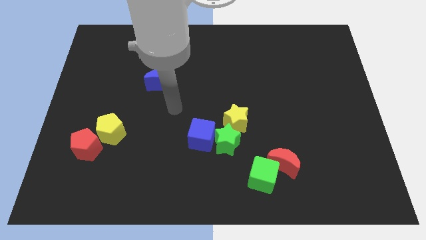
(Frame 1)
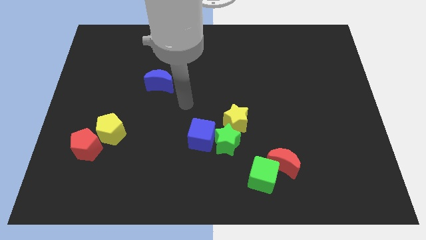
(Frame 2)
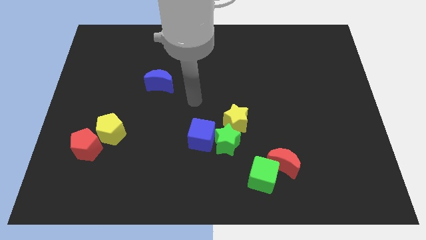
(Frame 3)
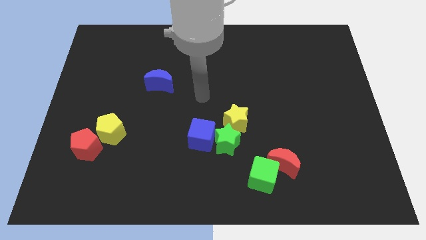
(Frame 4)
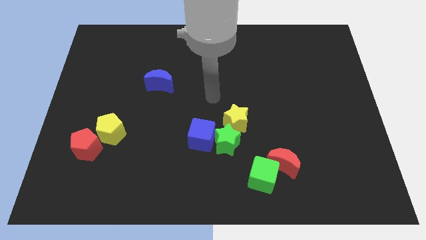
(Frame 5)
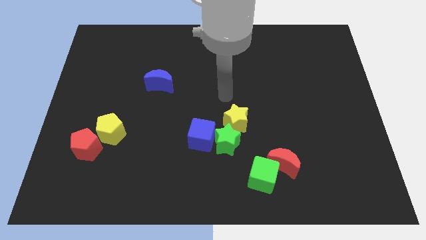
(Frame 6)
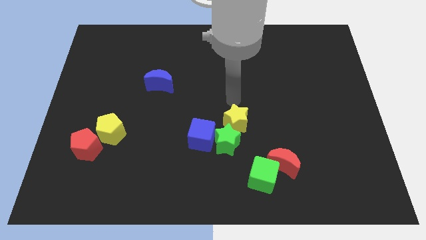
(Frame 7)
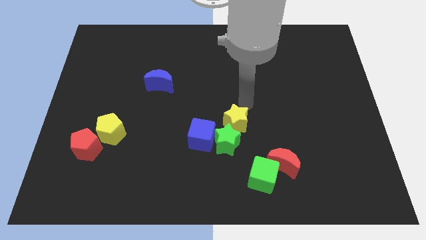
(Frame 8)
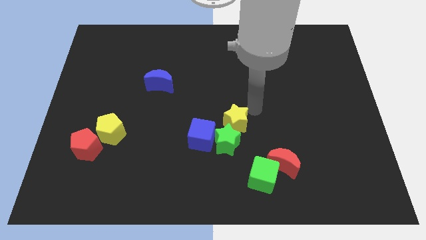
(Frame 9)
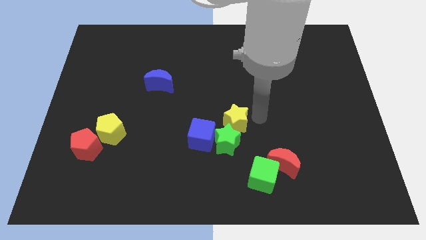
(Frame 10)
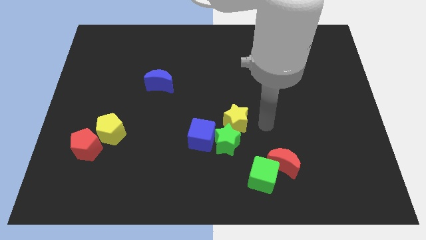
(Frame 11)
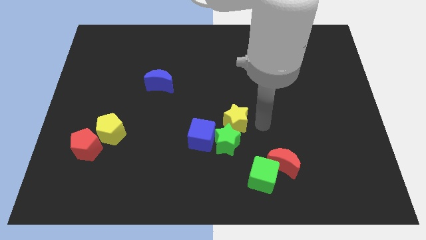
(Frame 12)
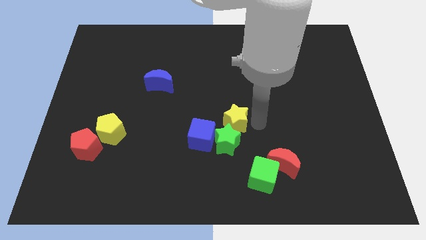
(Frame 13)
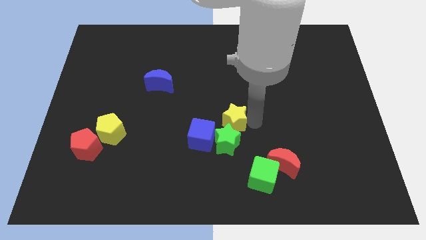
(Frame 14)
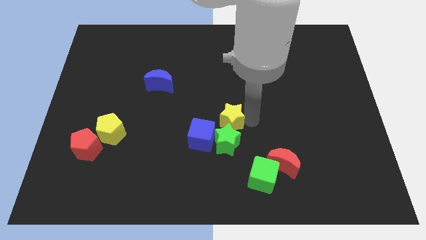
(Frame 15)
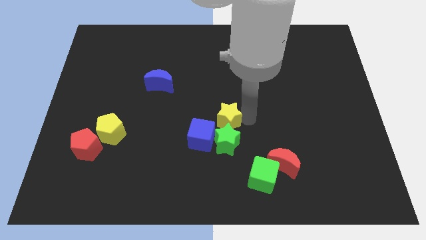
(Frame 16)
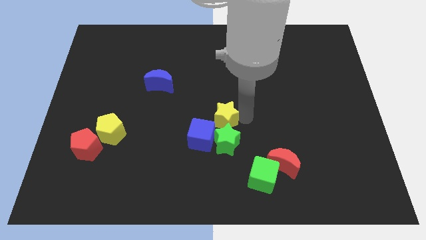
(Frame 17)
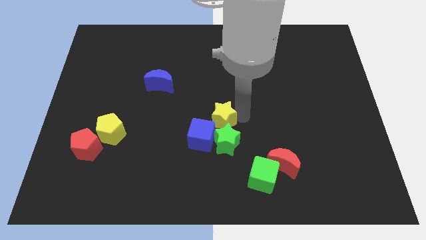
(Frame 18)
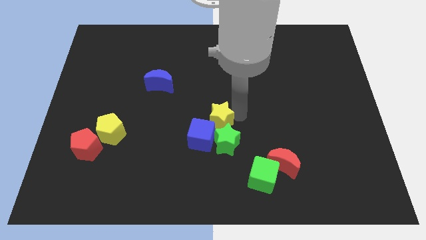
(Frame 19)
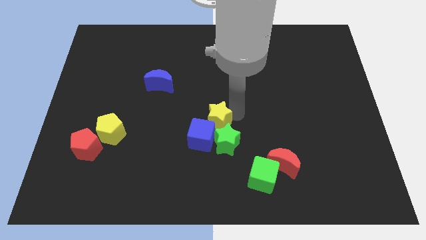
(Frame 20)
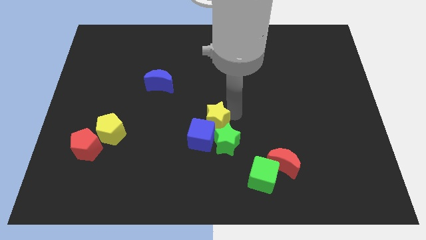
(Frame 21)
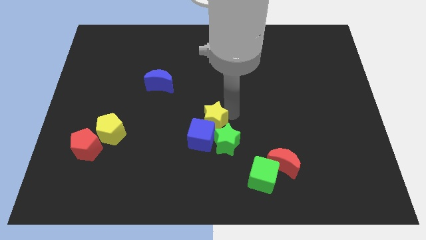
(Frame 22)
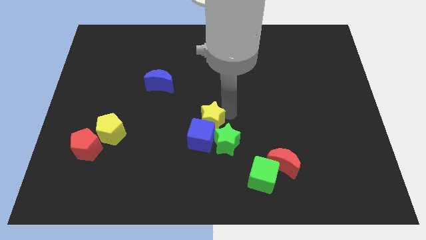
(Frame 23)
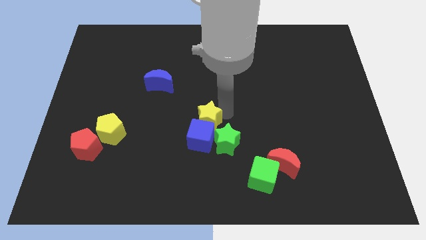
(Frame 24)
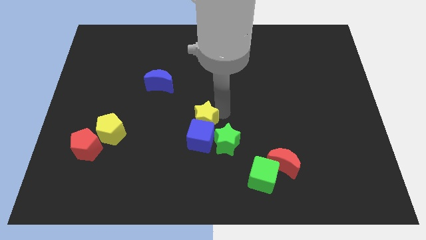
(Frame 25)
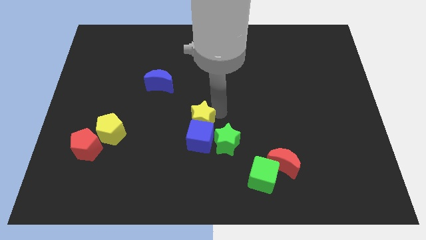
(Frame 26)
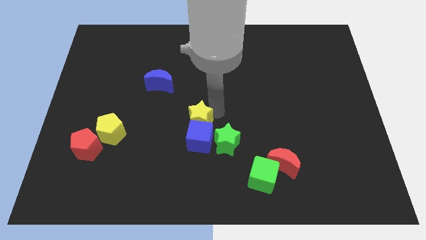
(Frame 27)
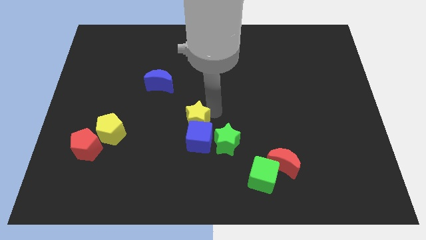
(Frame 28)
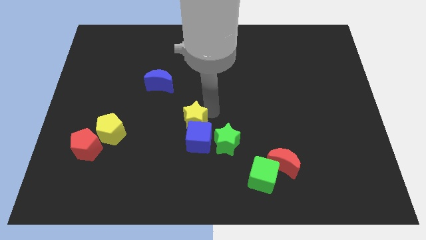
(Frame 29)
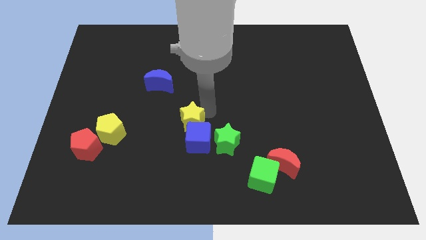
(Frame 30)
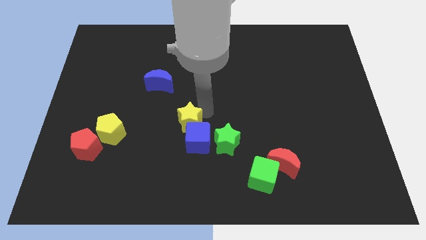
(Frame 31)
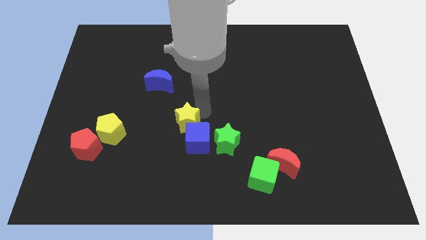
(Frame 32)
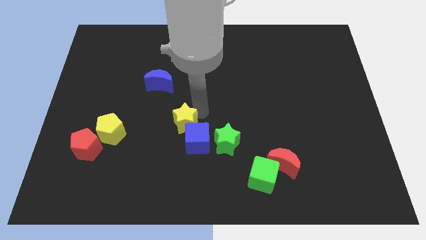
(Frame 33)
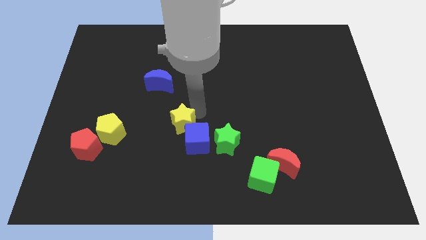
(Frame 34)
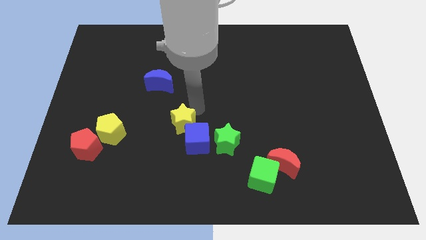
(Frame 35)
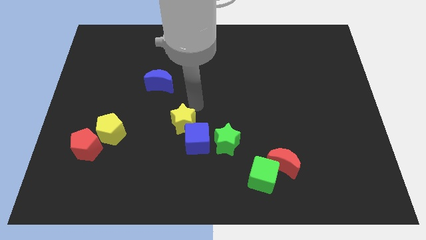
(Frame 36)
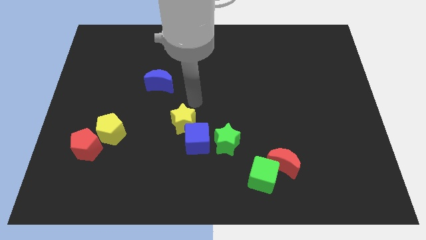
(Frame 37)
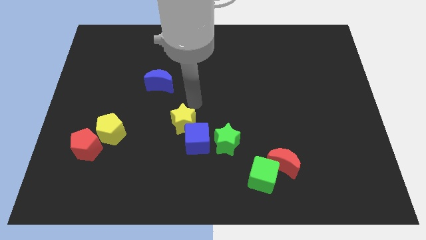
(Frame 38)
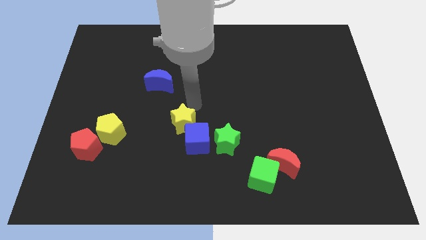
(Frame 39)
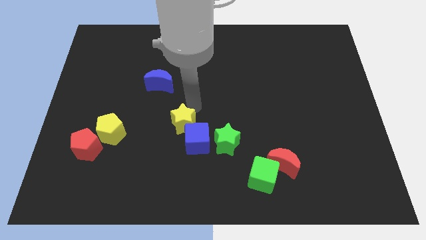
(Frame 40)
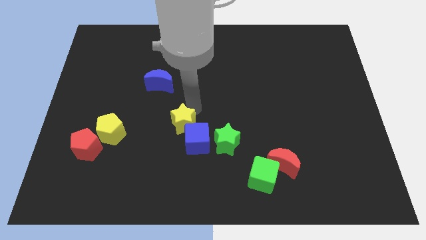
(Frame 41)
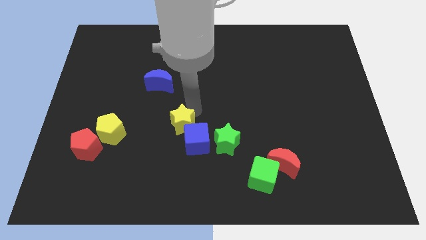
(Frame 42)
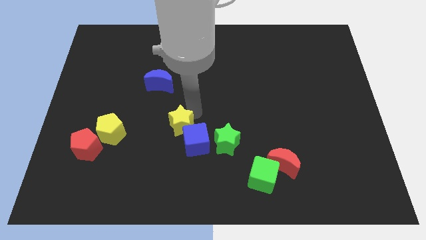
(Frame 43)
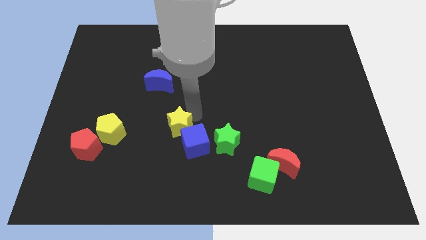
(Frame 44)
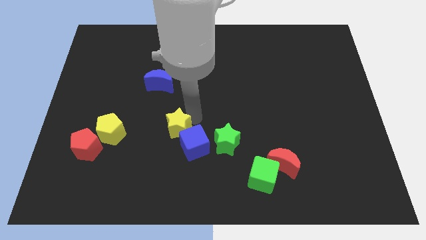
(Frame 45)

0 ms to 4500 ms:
slightly slide the yellow star down and to the left diagonally

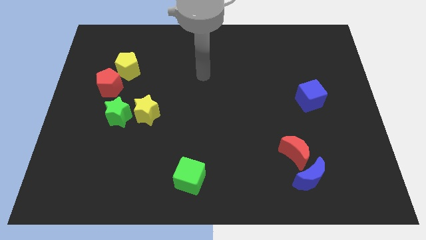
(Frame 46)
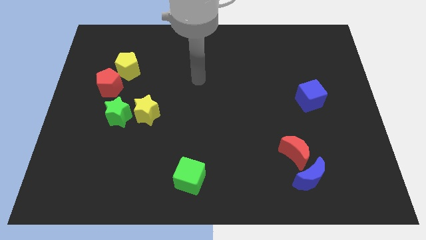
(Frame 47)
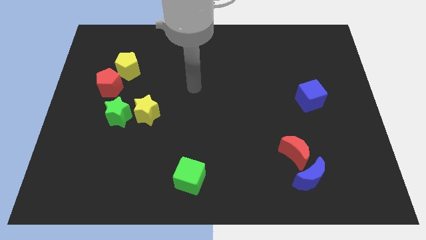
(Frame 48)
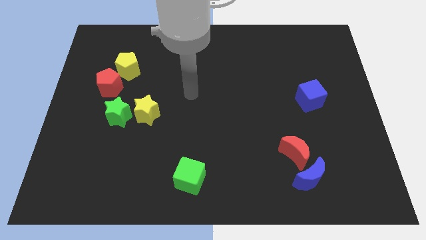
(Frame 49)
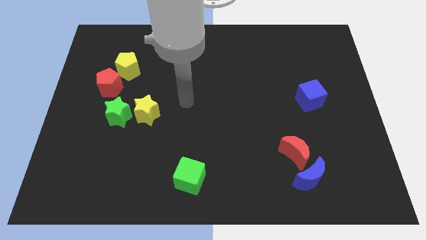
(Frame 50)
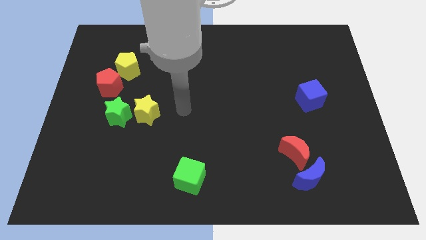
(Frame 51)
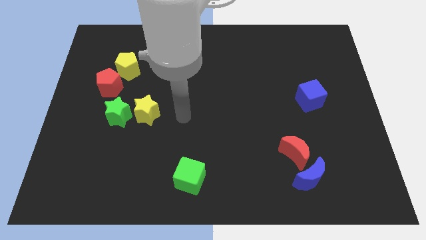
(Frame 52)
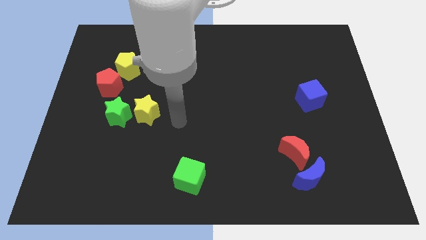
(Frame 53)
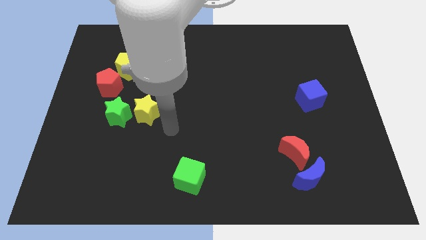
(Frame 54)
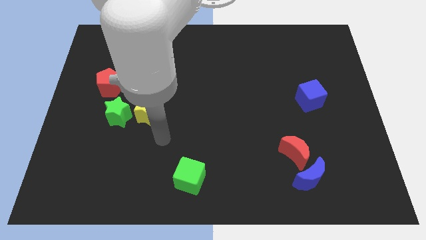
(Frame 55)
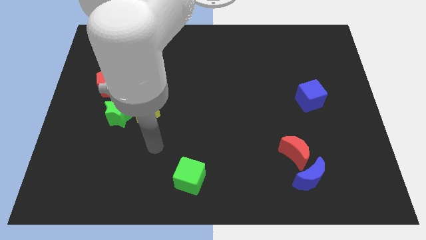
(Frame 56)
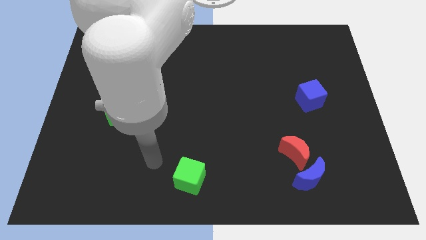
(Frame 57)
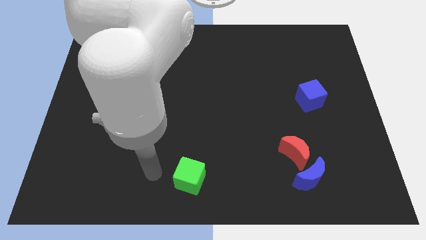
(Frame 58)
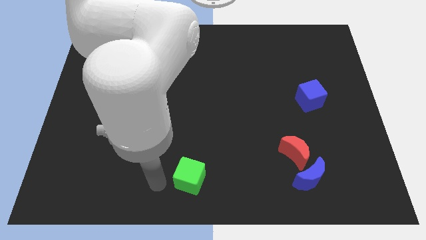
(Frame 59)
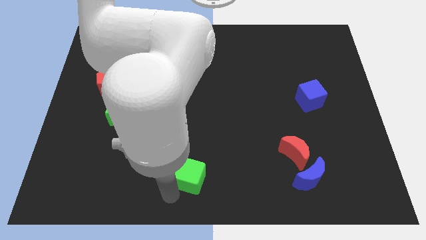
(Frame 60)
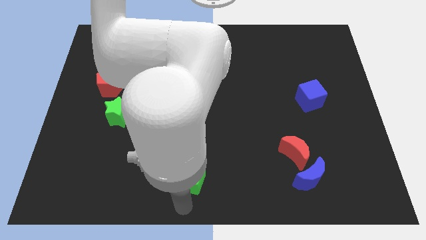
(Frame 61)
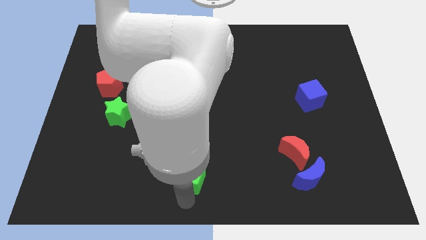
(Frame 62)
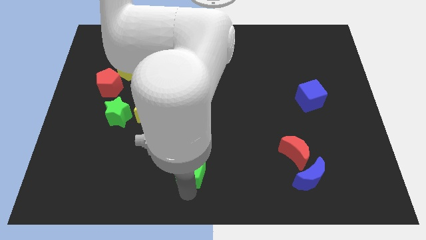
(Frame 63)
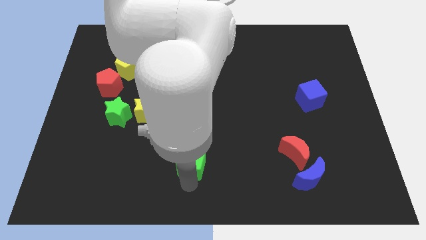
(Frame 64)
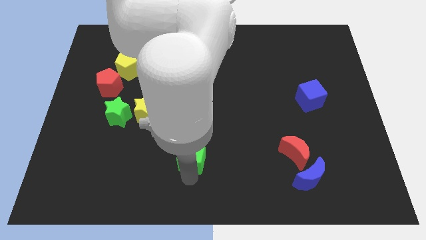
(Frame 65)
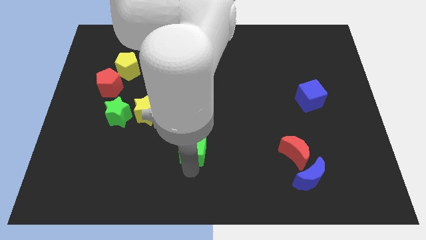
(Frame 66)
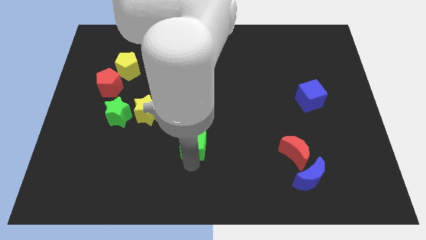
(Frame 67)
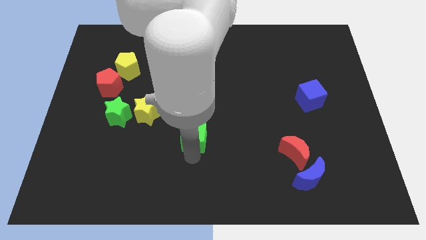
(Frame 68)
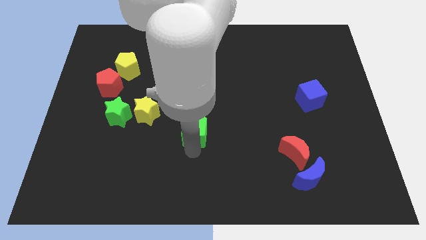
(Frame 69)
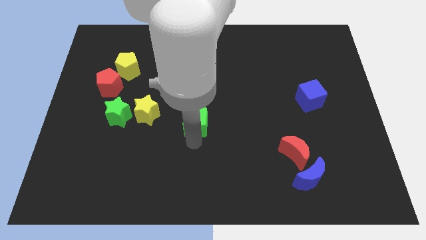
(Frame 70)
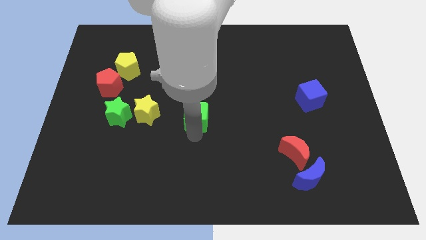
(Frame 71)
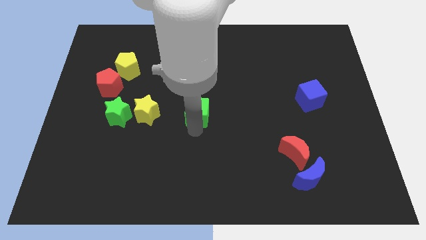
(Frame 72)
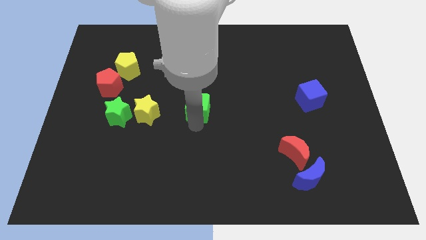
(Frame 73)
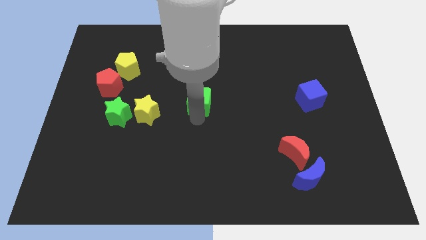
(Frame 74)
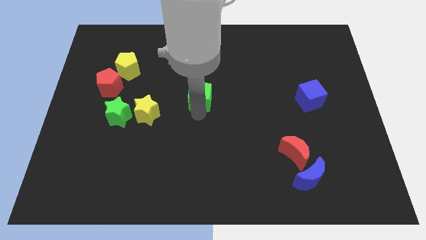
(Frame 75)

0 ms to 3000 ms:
slide the green cube up

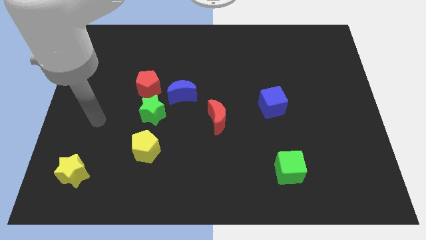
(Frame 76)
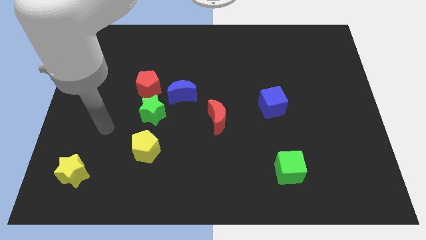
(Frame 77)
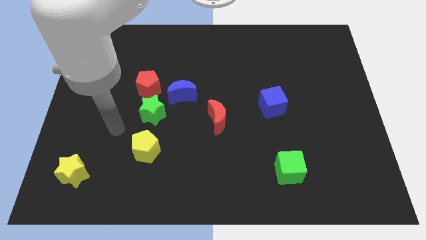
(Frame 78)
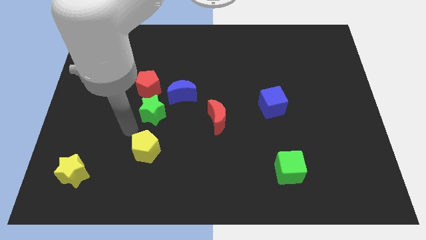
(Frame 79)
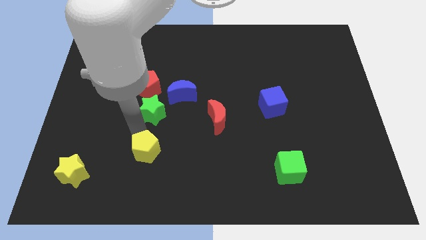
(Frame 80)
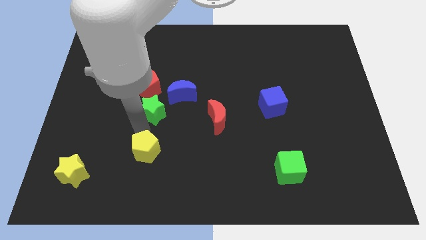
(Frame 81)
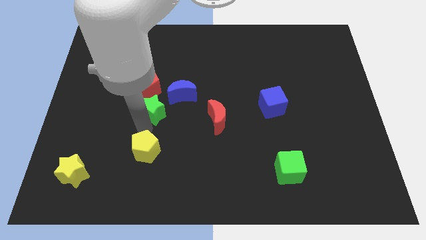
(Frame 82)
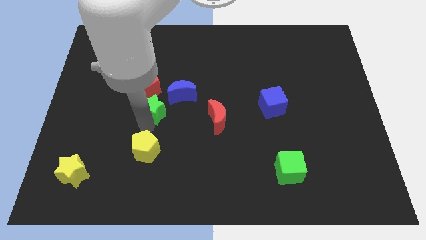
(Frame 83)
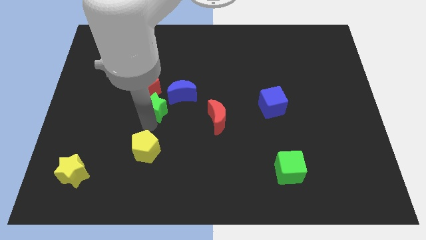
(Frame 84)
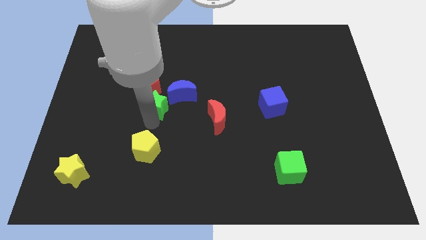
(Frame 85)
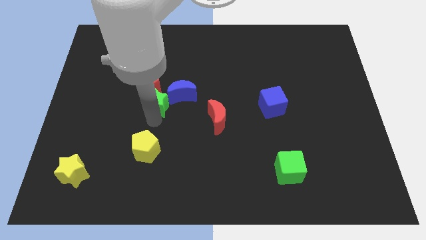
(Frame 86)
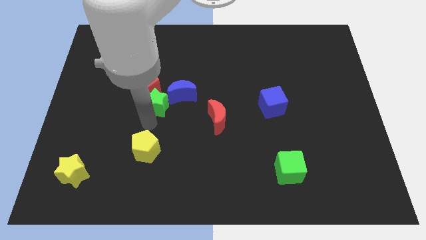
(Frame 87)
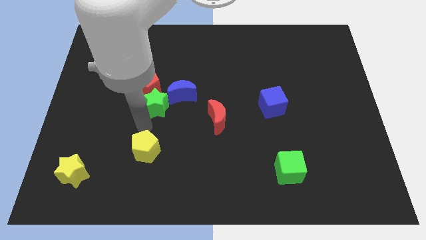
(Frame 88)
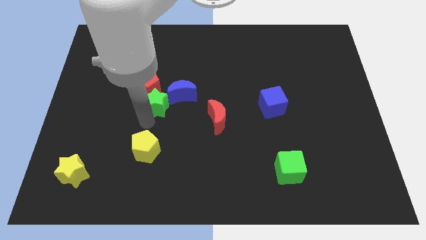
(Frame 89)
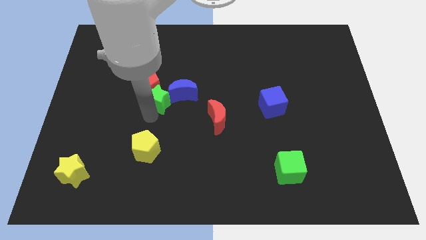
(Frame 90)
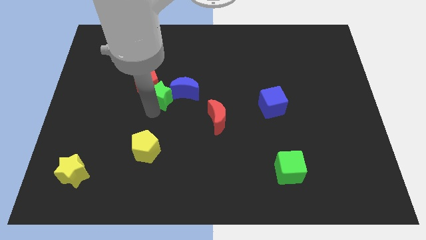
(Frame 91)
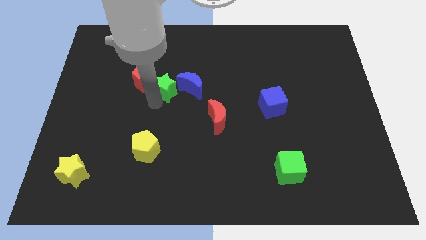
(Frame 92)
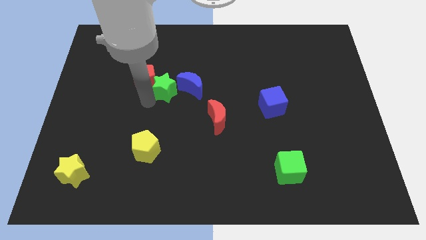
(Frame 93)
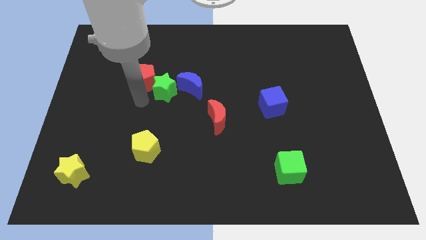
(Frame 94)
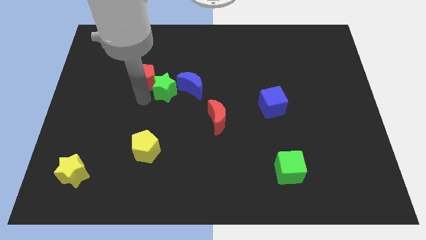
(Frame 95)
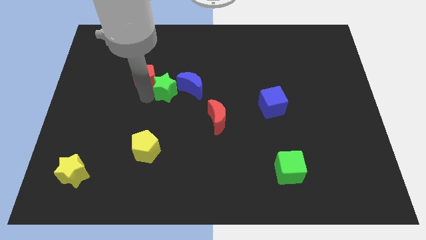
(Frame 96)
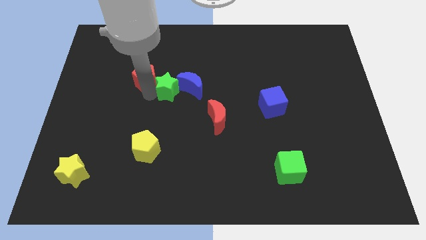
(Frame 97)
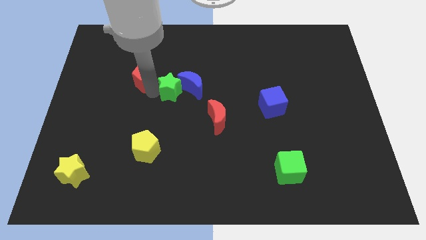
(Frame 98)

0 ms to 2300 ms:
push the green star upwards and then to the right slightly
